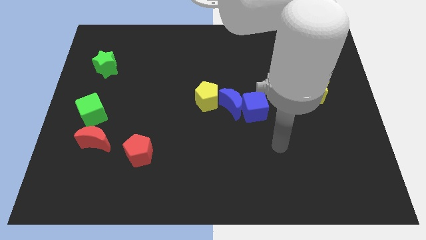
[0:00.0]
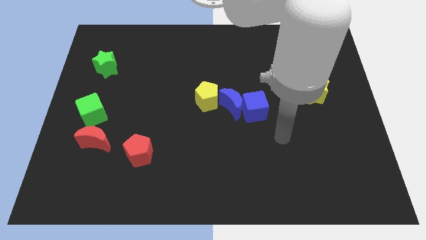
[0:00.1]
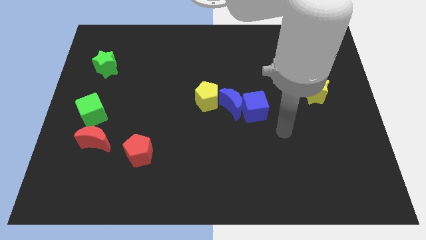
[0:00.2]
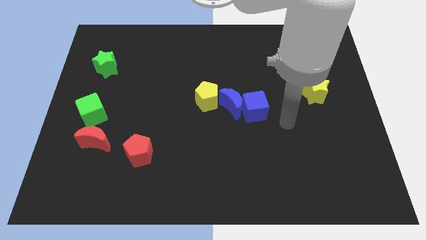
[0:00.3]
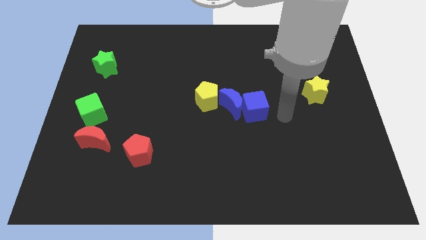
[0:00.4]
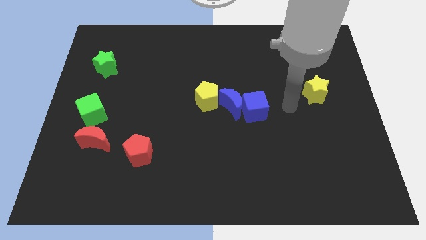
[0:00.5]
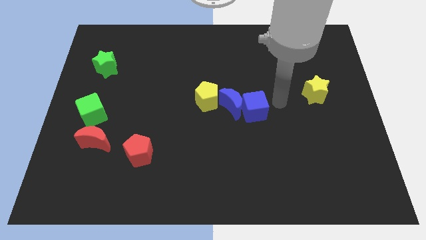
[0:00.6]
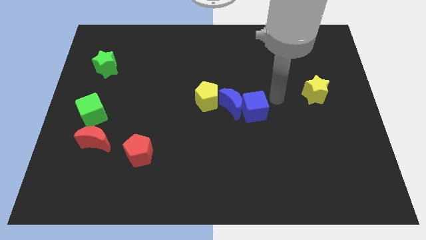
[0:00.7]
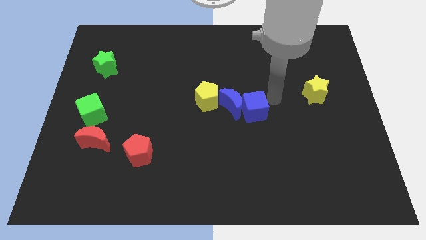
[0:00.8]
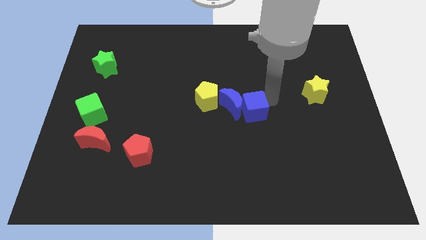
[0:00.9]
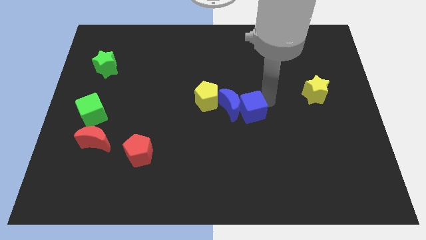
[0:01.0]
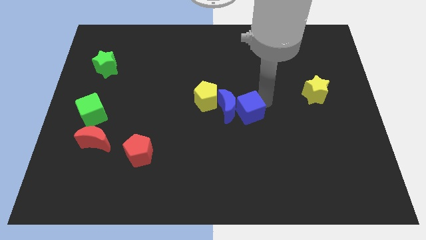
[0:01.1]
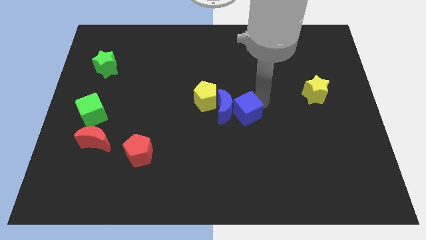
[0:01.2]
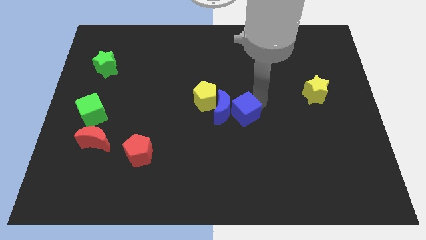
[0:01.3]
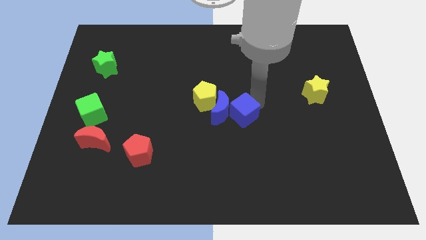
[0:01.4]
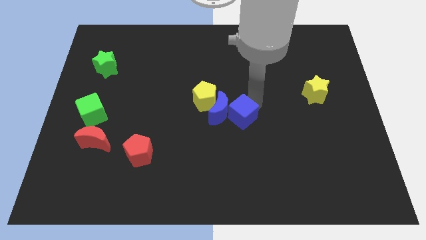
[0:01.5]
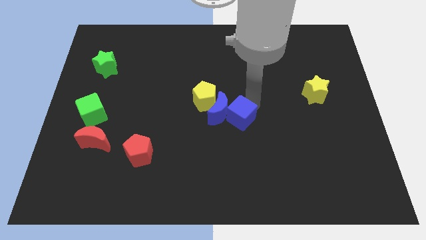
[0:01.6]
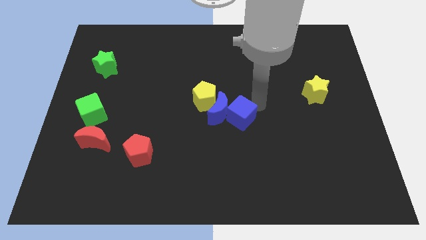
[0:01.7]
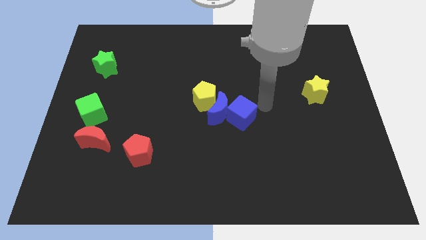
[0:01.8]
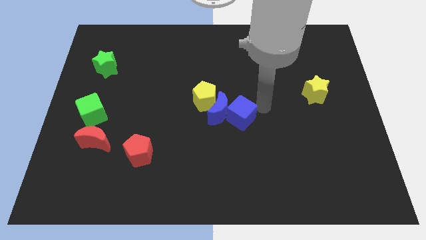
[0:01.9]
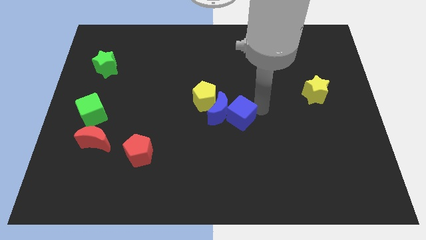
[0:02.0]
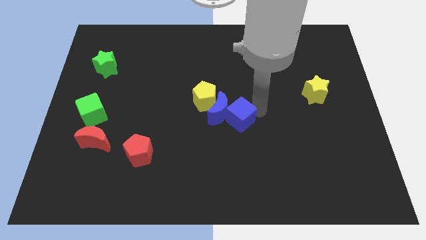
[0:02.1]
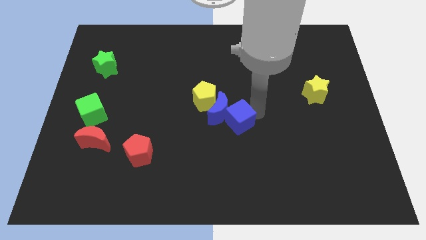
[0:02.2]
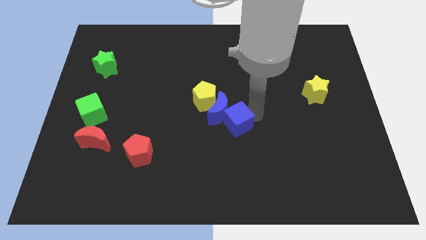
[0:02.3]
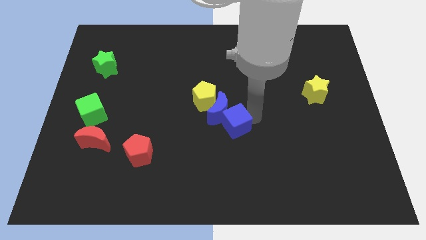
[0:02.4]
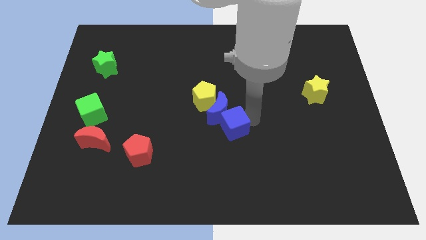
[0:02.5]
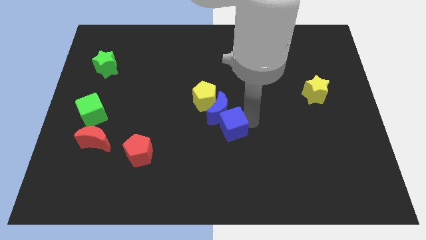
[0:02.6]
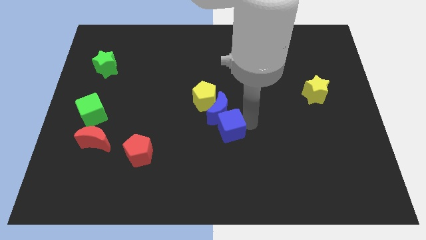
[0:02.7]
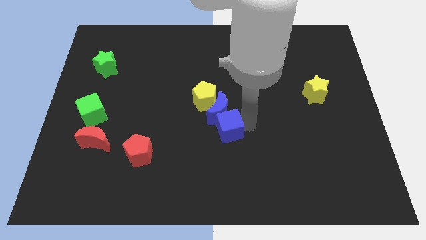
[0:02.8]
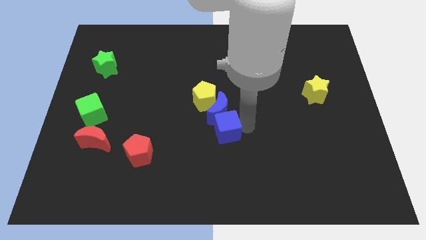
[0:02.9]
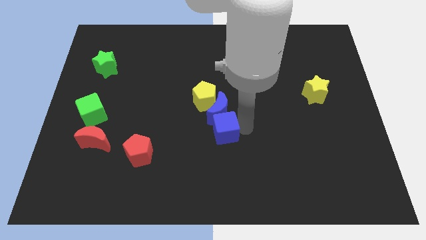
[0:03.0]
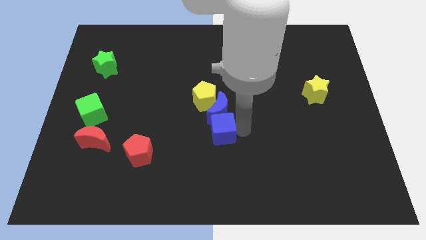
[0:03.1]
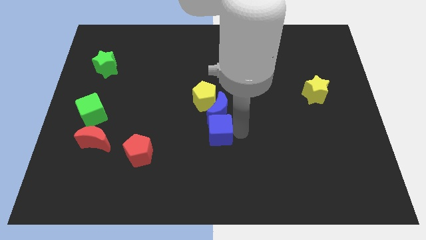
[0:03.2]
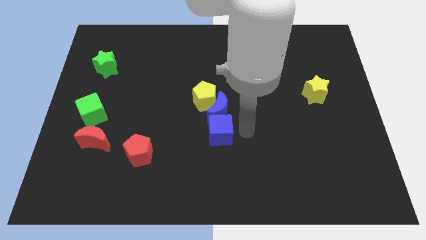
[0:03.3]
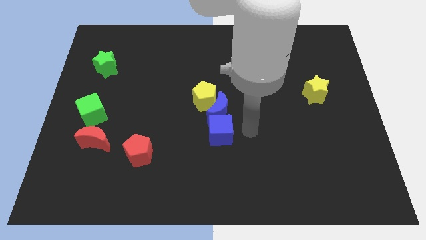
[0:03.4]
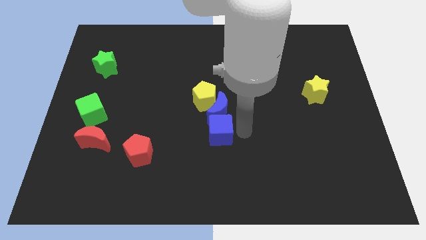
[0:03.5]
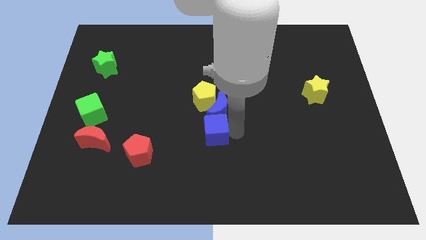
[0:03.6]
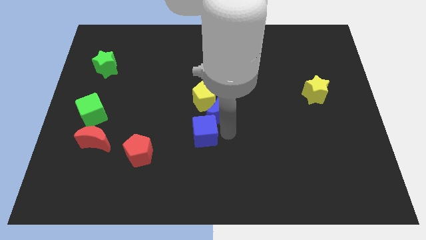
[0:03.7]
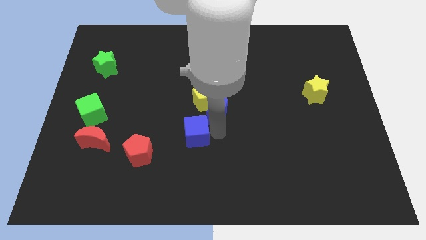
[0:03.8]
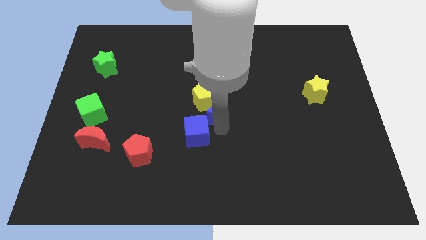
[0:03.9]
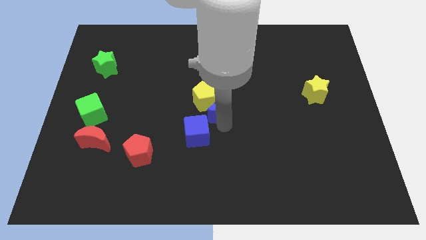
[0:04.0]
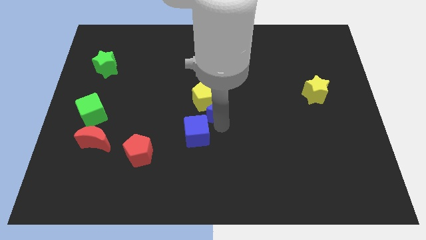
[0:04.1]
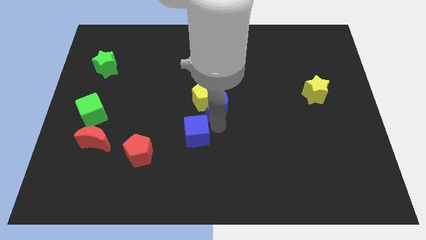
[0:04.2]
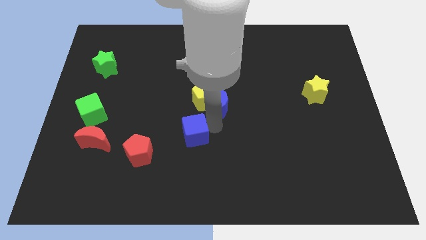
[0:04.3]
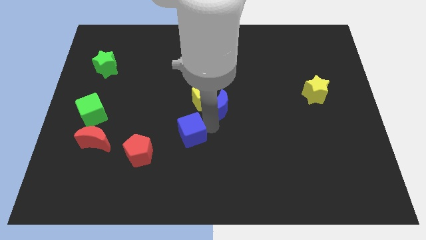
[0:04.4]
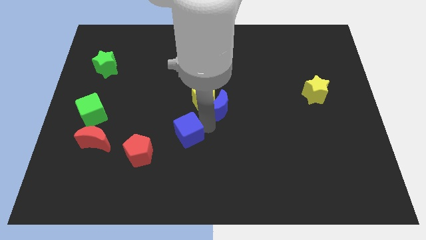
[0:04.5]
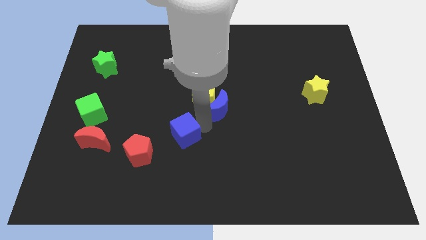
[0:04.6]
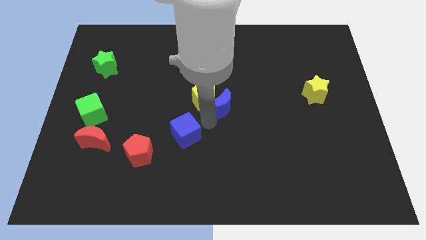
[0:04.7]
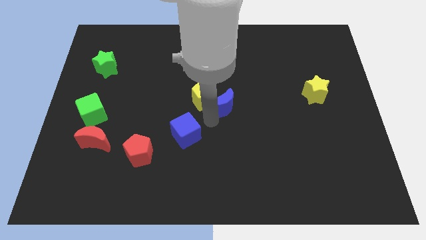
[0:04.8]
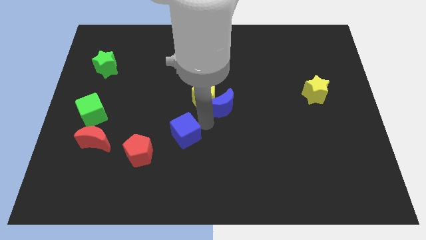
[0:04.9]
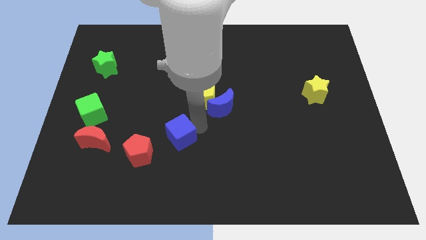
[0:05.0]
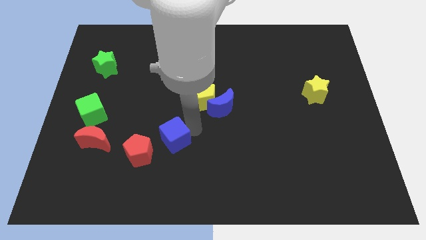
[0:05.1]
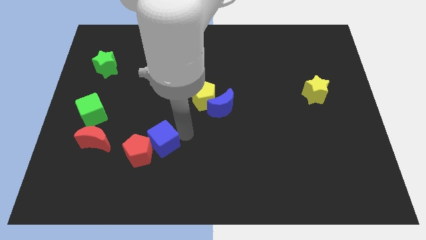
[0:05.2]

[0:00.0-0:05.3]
put the blue cube towards the red pentagon
